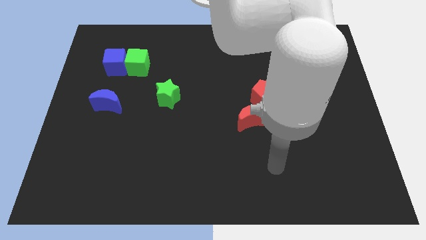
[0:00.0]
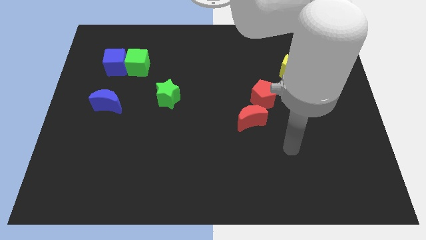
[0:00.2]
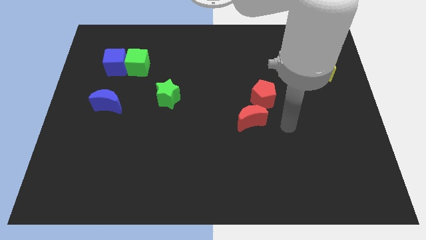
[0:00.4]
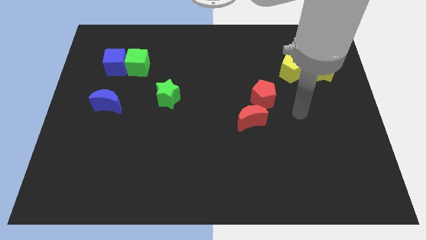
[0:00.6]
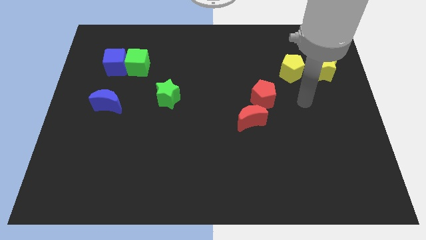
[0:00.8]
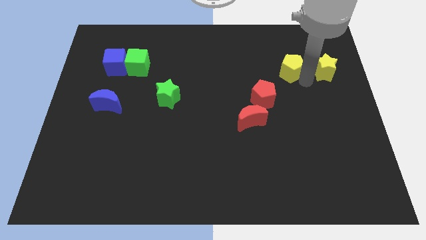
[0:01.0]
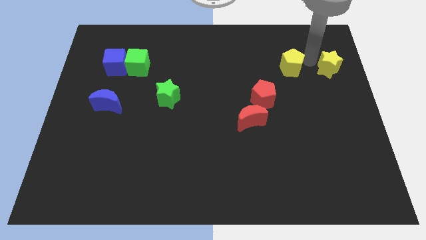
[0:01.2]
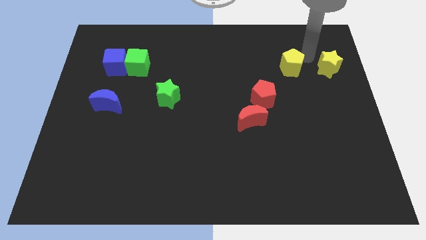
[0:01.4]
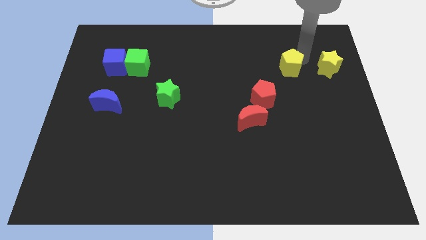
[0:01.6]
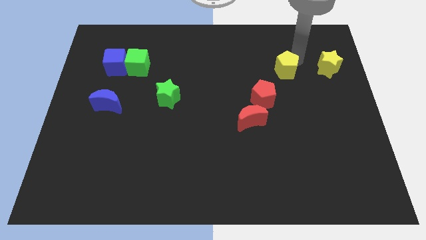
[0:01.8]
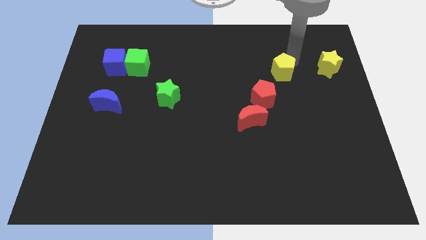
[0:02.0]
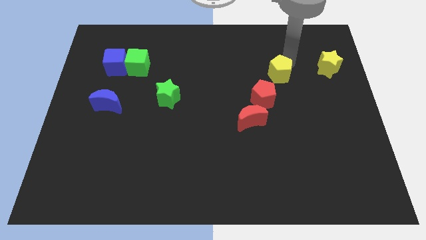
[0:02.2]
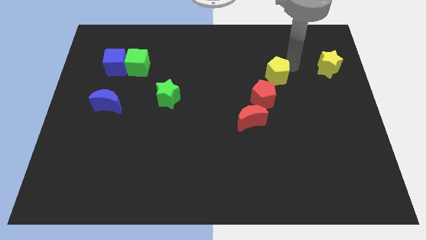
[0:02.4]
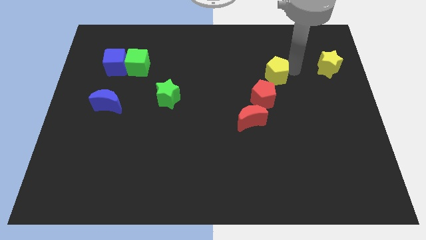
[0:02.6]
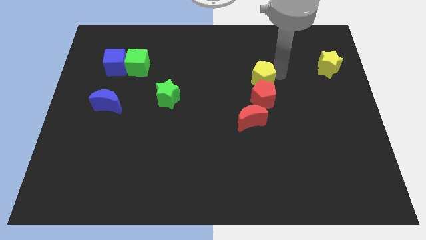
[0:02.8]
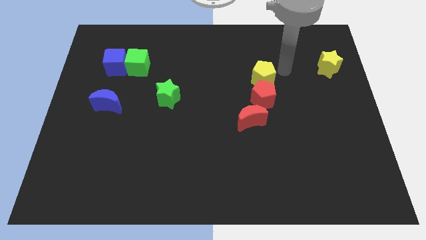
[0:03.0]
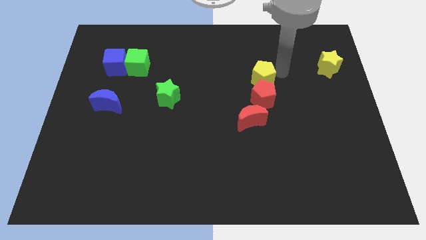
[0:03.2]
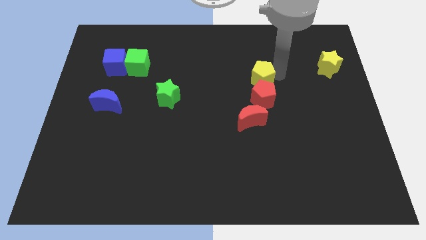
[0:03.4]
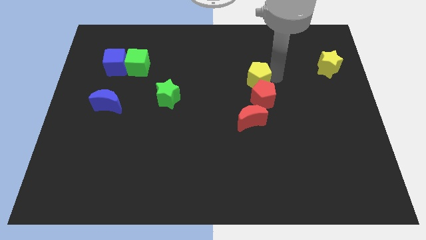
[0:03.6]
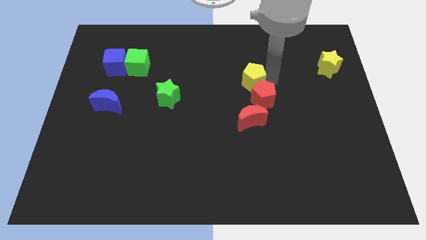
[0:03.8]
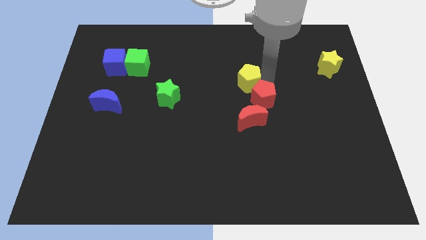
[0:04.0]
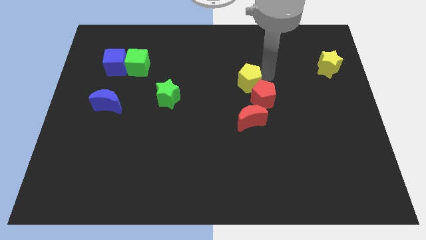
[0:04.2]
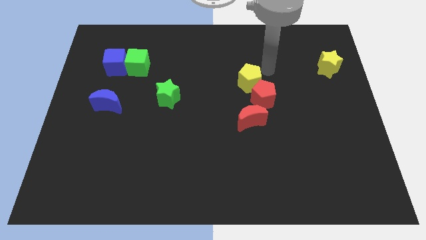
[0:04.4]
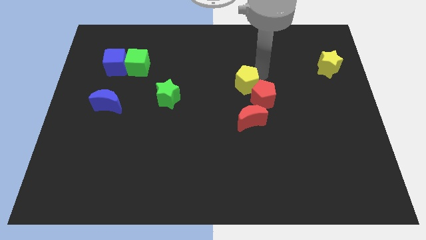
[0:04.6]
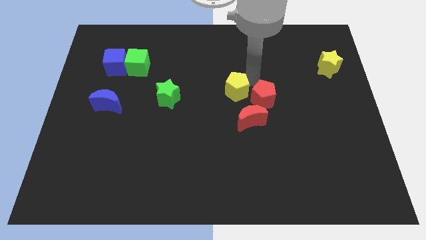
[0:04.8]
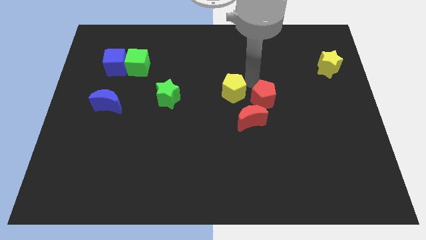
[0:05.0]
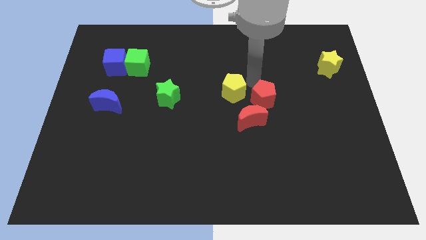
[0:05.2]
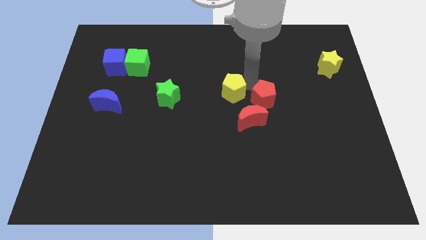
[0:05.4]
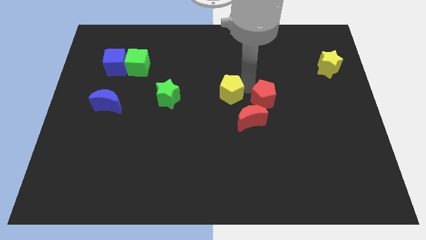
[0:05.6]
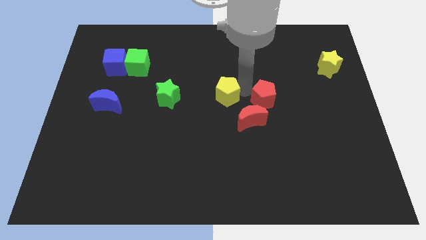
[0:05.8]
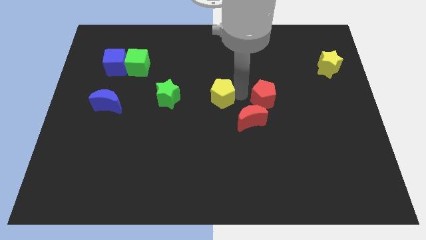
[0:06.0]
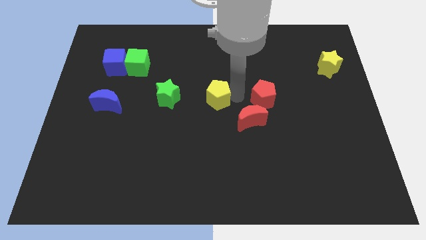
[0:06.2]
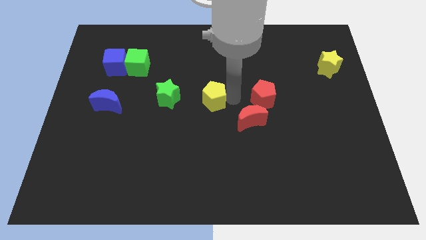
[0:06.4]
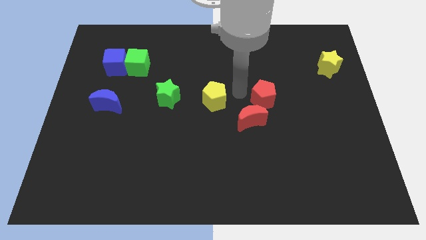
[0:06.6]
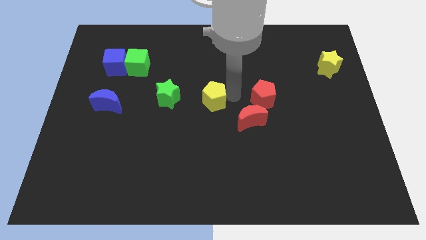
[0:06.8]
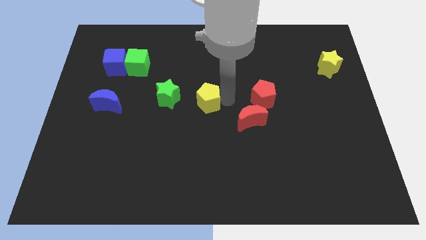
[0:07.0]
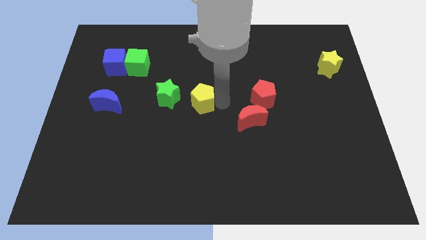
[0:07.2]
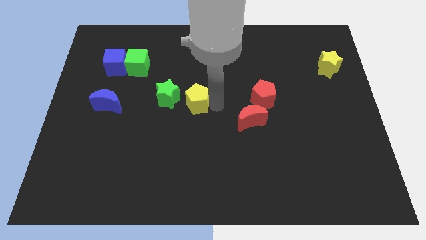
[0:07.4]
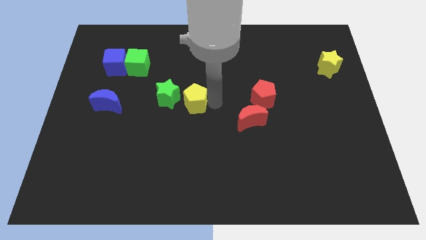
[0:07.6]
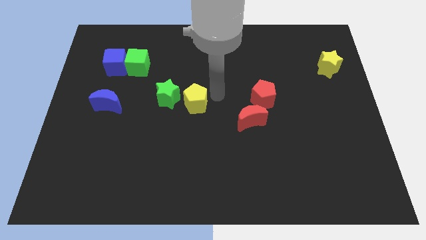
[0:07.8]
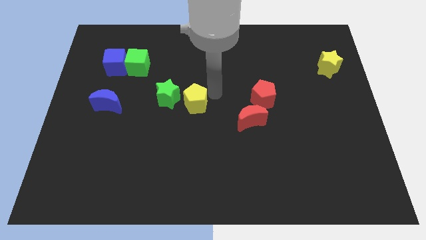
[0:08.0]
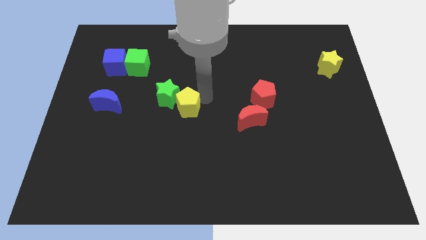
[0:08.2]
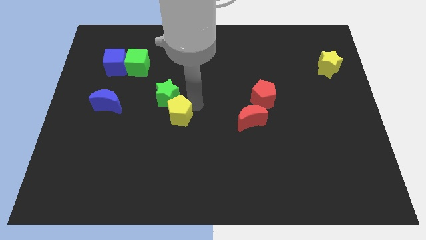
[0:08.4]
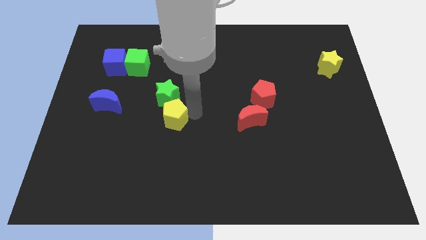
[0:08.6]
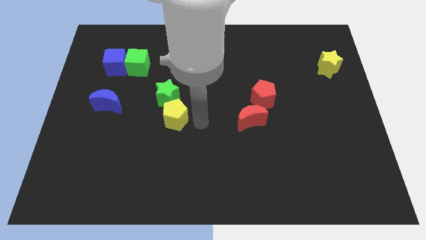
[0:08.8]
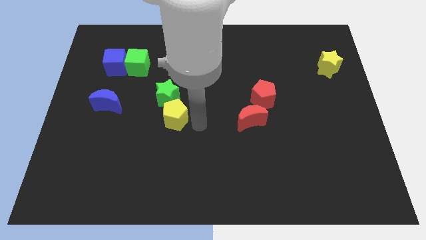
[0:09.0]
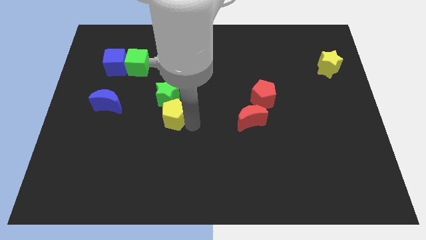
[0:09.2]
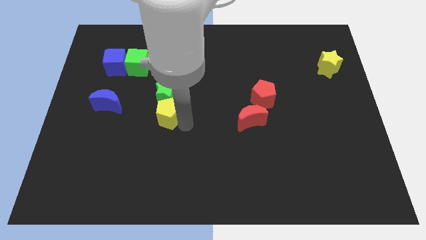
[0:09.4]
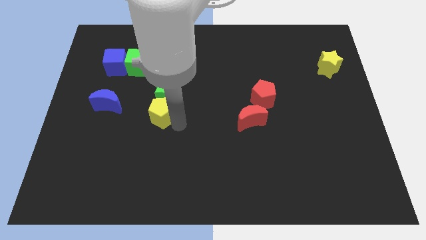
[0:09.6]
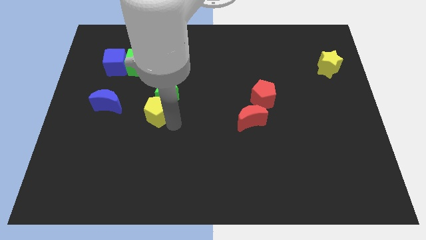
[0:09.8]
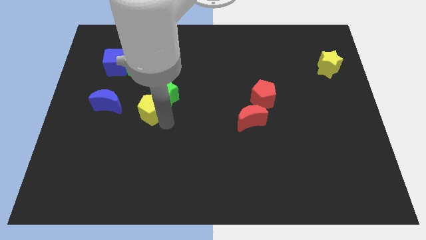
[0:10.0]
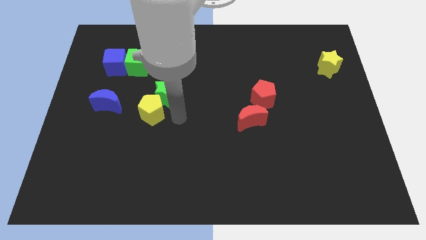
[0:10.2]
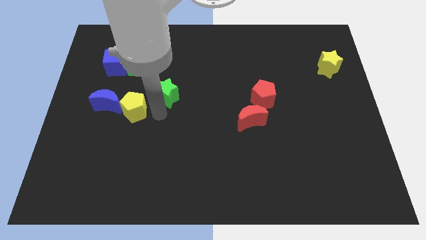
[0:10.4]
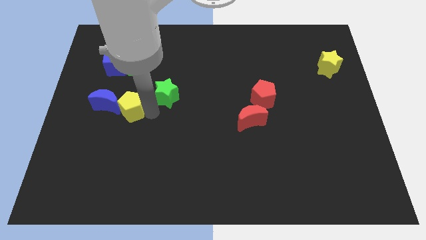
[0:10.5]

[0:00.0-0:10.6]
slide the yellow pentagon to the blue moon

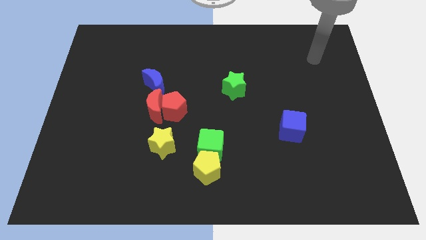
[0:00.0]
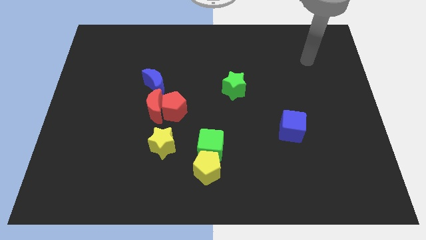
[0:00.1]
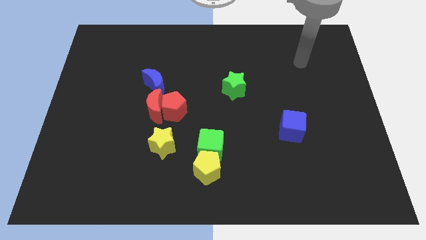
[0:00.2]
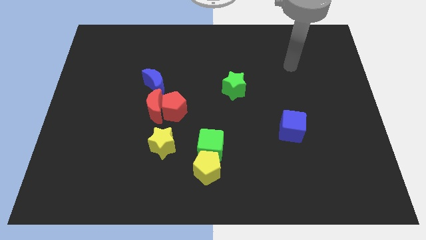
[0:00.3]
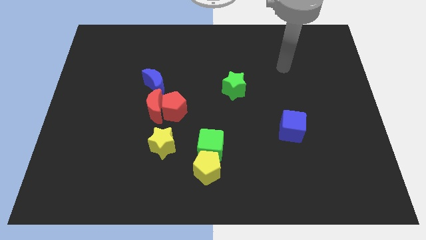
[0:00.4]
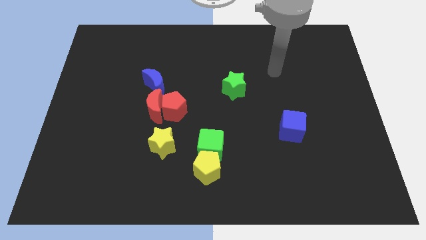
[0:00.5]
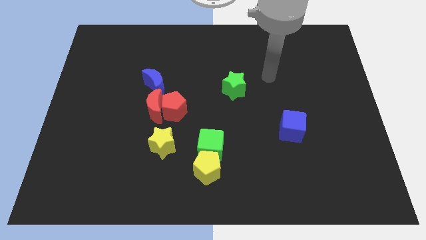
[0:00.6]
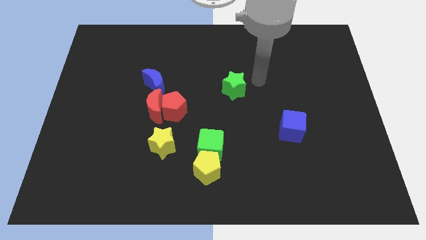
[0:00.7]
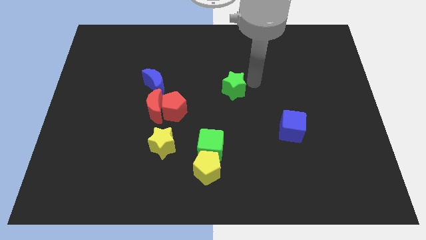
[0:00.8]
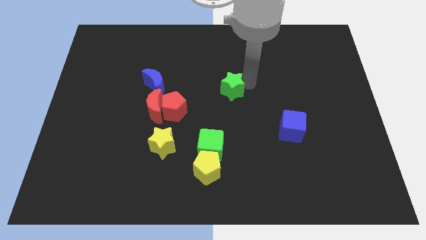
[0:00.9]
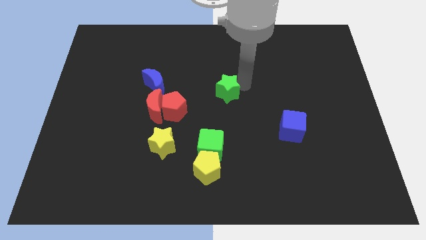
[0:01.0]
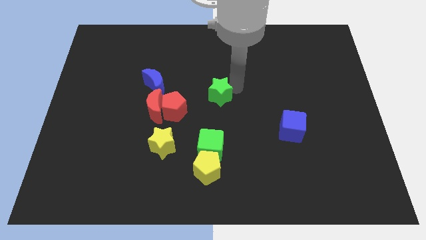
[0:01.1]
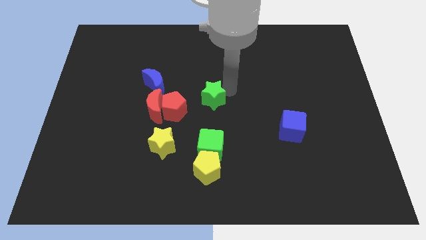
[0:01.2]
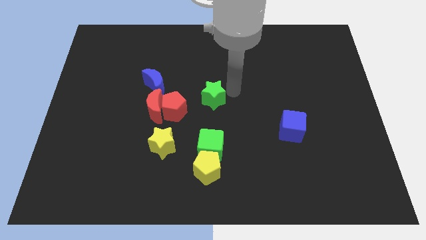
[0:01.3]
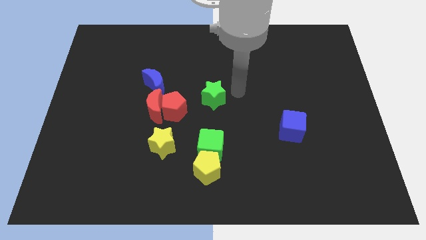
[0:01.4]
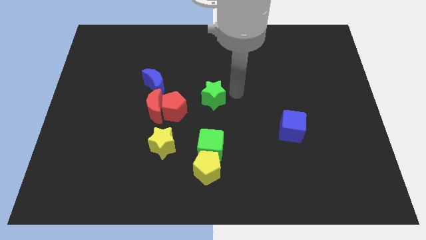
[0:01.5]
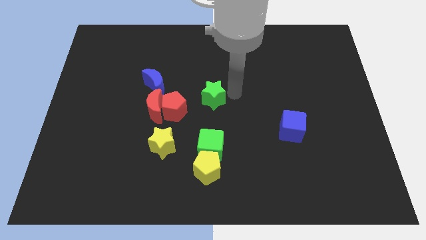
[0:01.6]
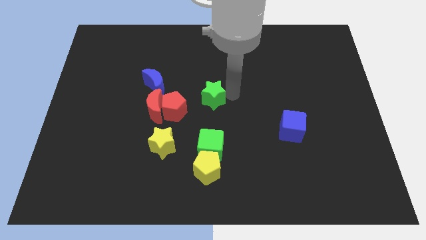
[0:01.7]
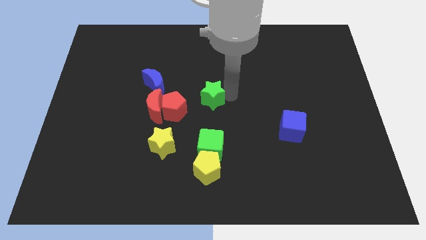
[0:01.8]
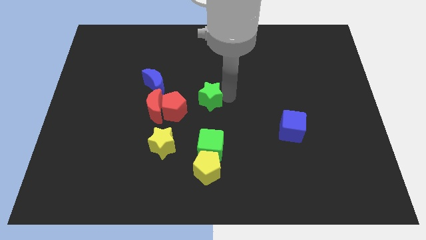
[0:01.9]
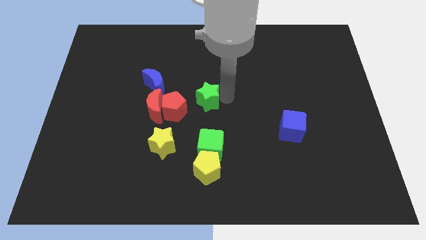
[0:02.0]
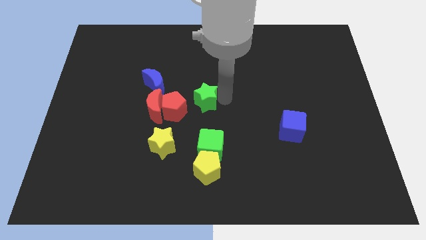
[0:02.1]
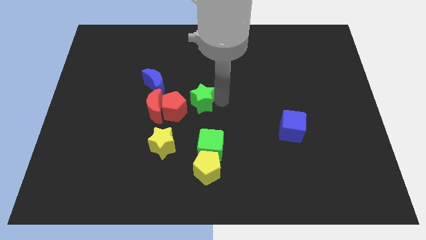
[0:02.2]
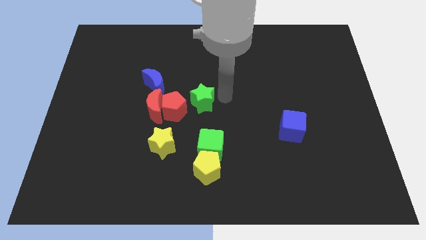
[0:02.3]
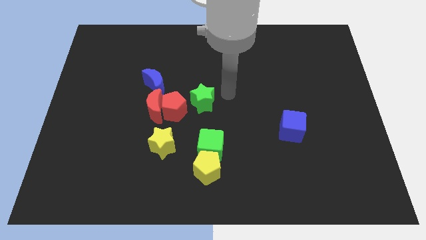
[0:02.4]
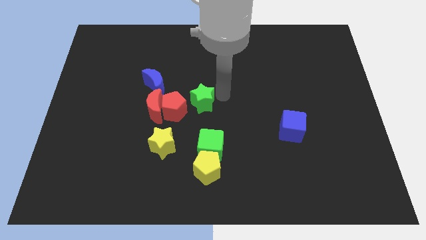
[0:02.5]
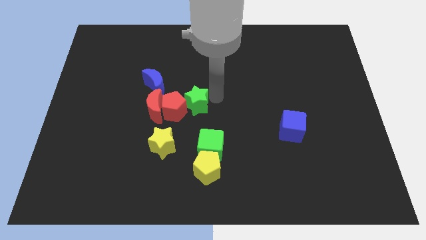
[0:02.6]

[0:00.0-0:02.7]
slide the green star towards the red pentagon
